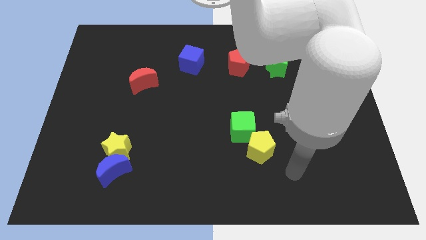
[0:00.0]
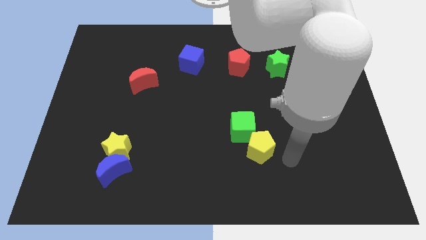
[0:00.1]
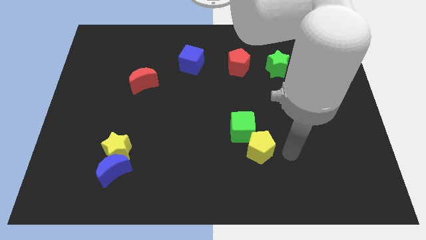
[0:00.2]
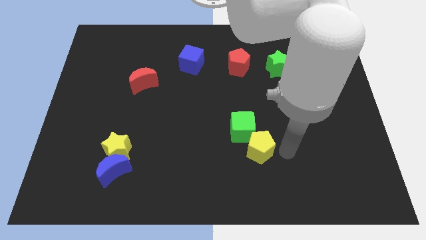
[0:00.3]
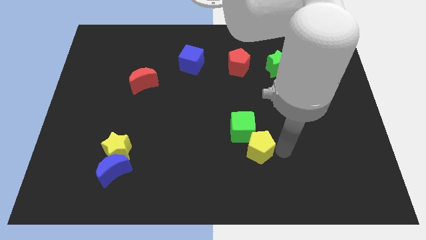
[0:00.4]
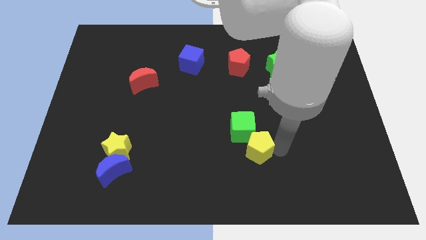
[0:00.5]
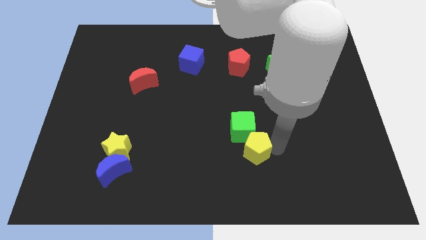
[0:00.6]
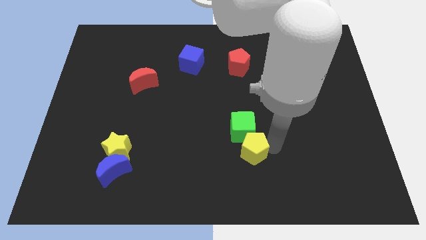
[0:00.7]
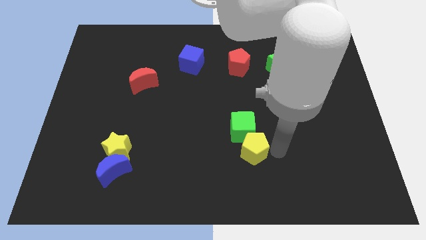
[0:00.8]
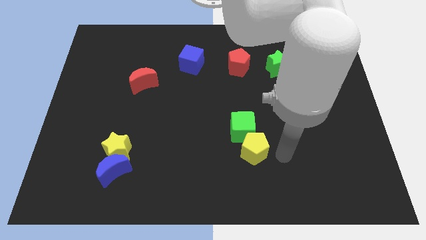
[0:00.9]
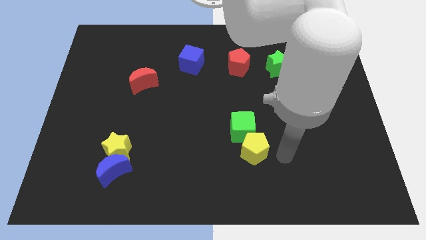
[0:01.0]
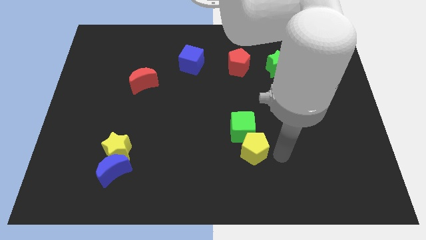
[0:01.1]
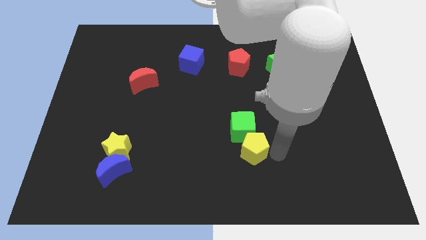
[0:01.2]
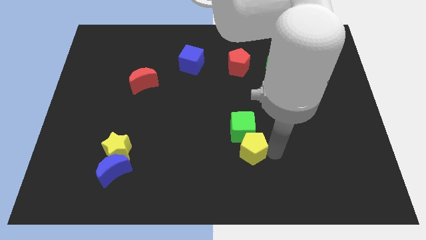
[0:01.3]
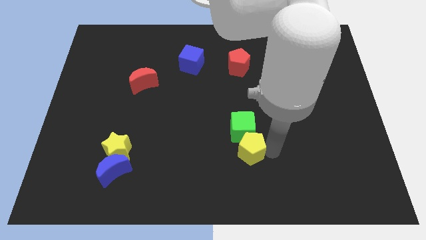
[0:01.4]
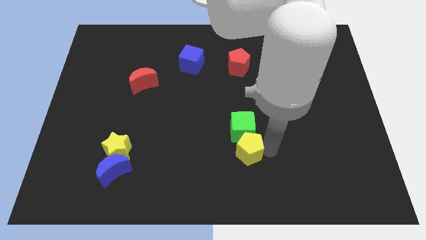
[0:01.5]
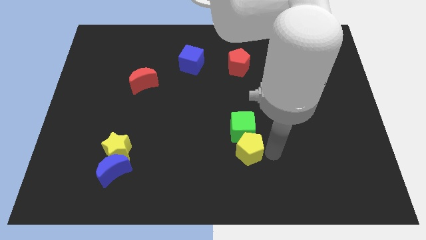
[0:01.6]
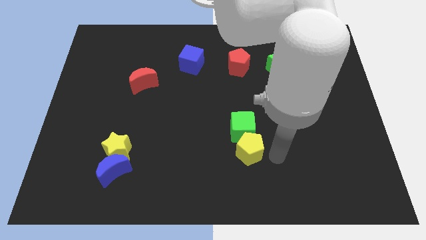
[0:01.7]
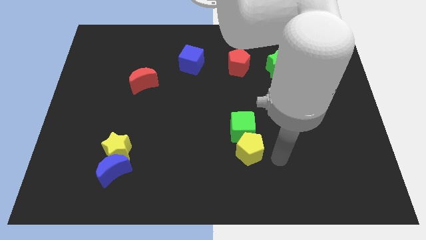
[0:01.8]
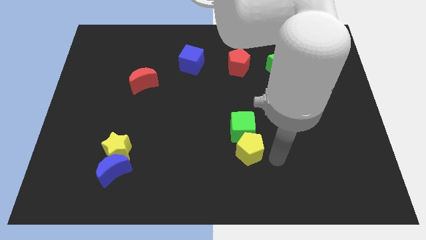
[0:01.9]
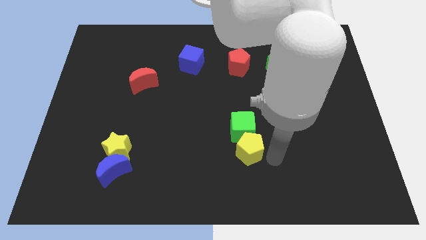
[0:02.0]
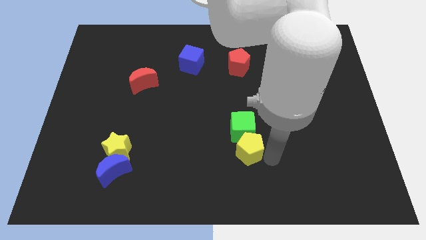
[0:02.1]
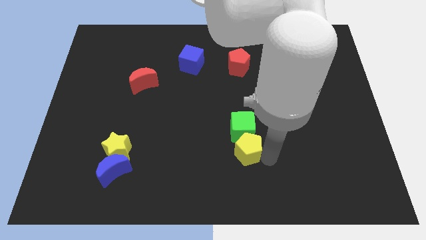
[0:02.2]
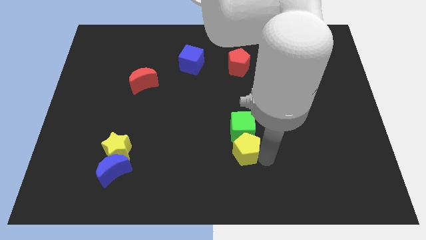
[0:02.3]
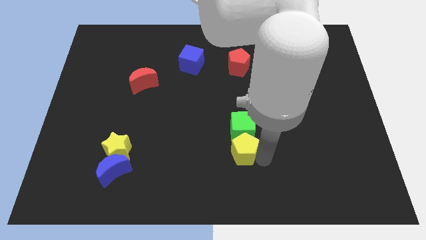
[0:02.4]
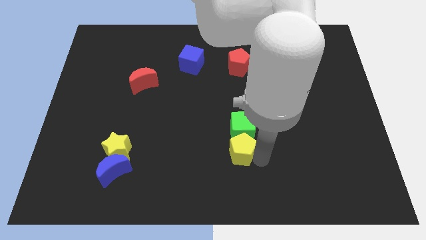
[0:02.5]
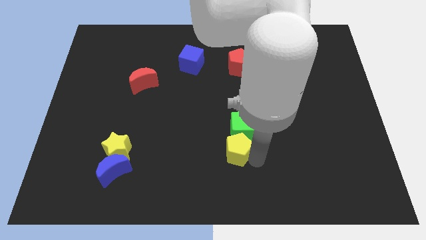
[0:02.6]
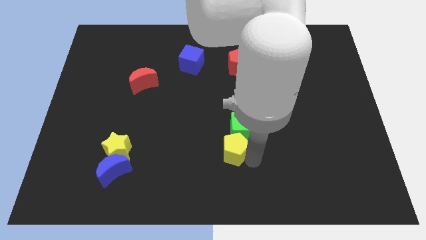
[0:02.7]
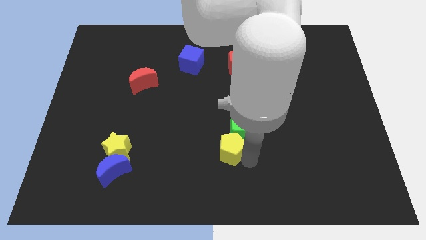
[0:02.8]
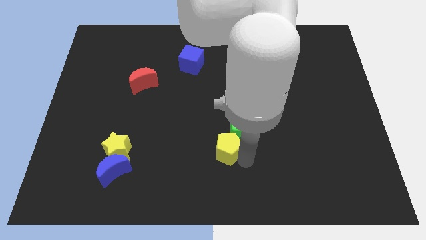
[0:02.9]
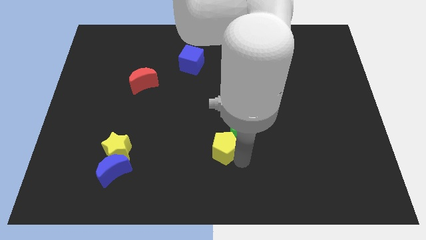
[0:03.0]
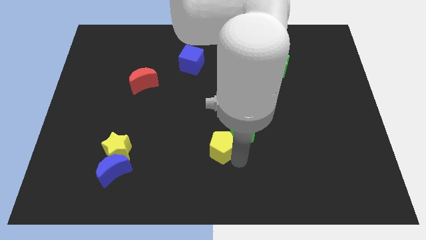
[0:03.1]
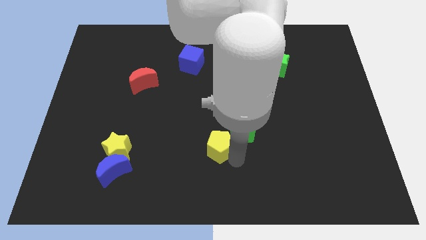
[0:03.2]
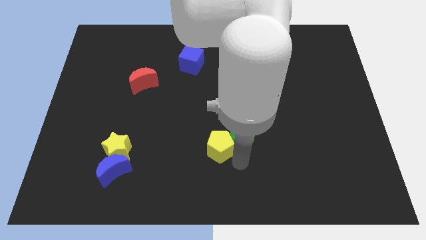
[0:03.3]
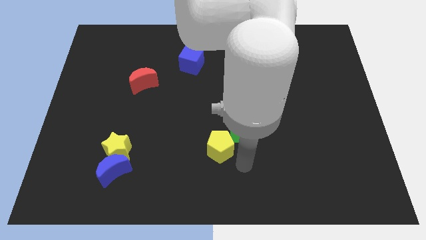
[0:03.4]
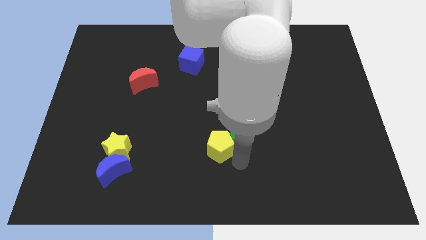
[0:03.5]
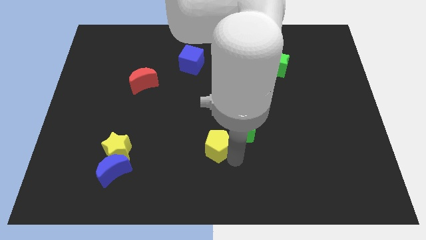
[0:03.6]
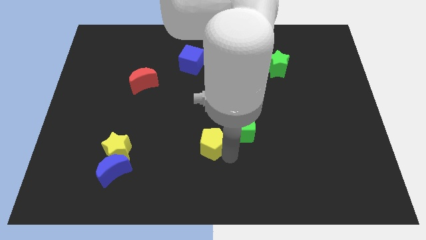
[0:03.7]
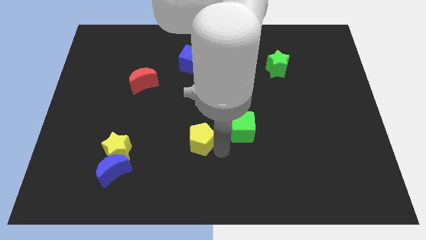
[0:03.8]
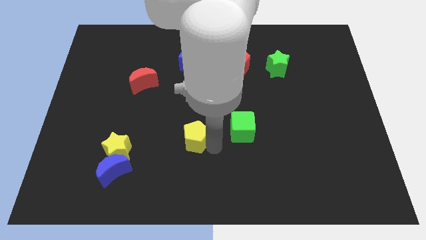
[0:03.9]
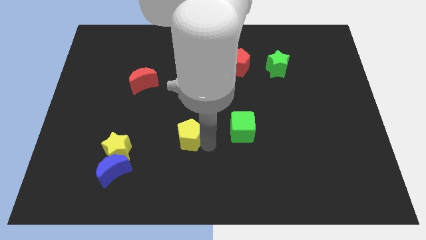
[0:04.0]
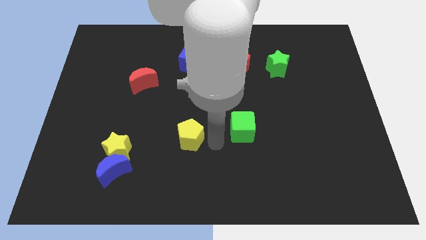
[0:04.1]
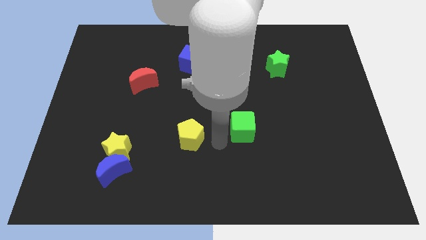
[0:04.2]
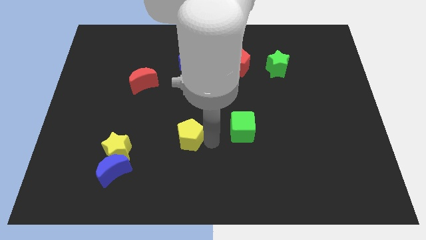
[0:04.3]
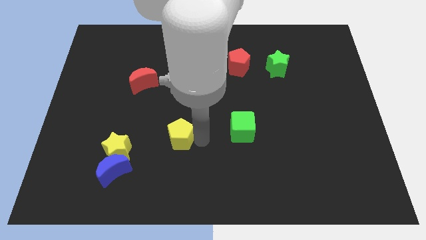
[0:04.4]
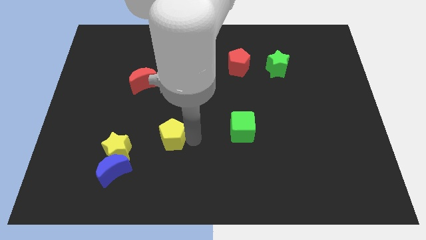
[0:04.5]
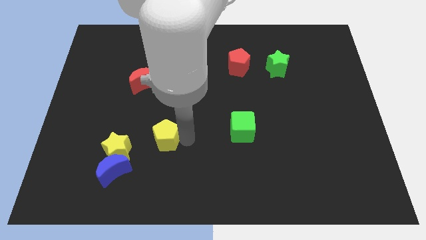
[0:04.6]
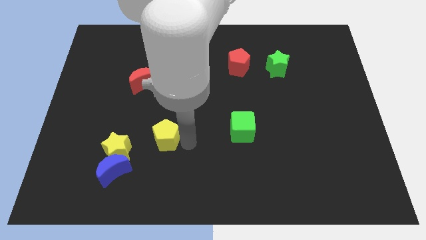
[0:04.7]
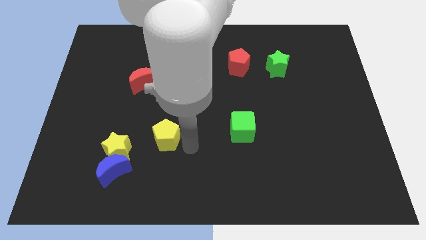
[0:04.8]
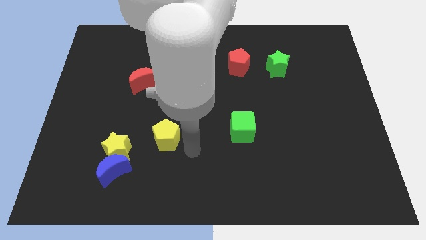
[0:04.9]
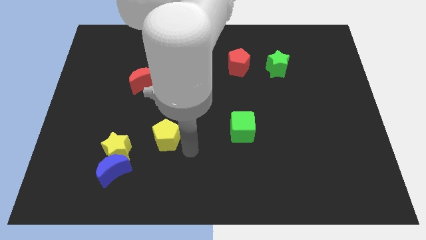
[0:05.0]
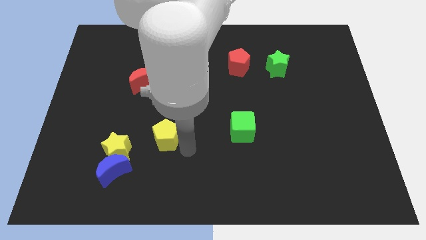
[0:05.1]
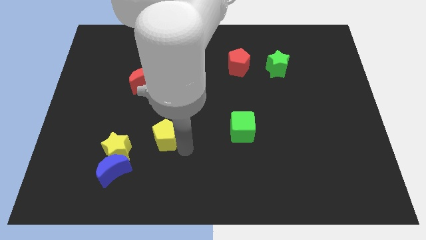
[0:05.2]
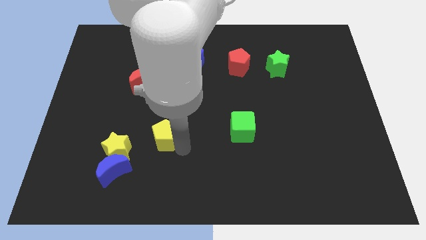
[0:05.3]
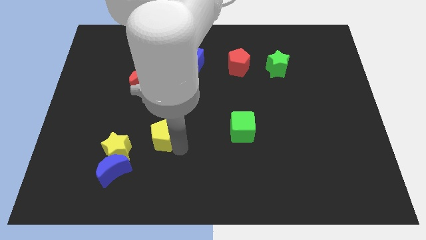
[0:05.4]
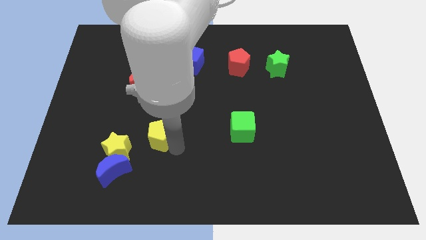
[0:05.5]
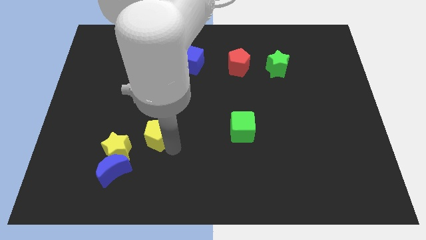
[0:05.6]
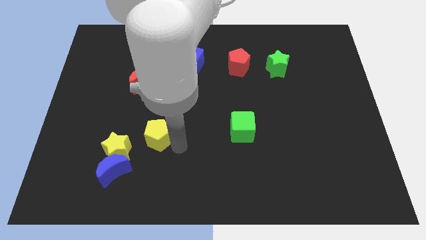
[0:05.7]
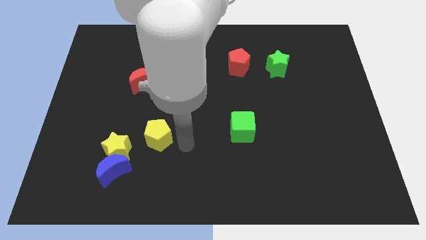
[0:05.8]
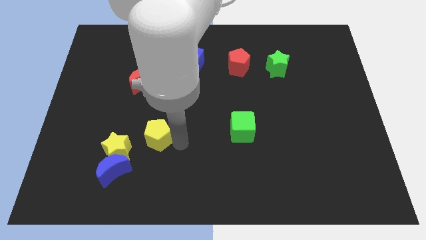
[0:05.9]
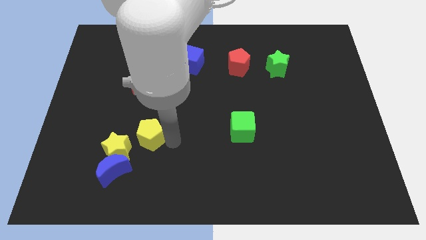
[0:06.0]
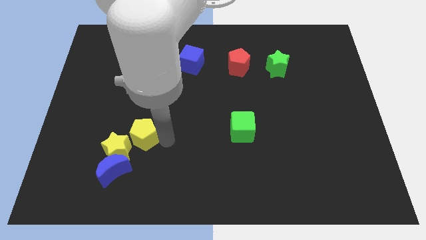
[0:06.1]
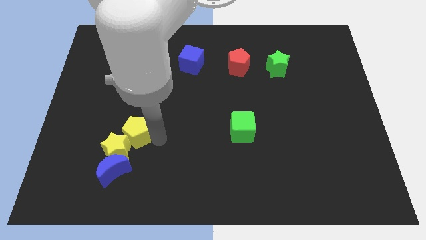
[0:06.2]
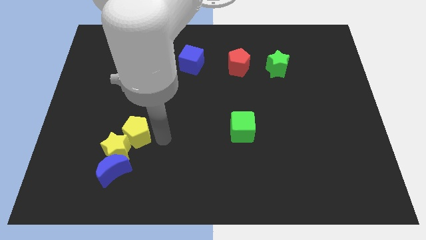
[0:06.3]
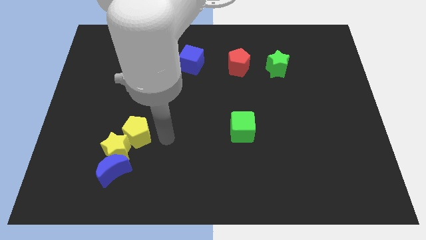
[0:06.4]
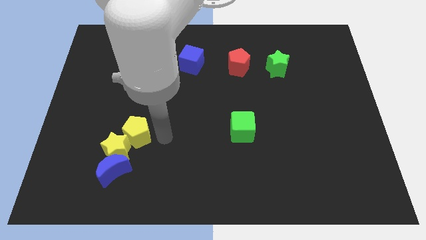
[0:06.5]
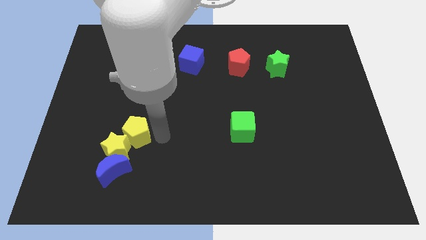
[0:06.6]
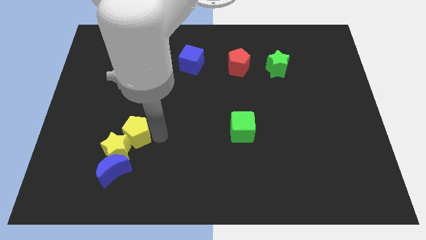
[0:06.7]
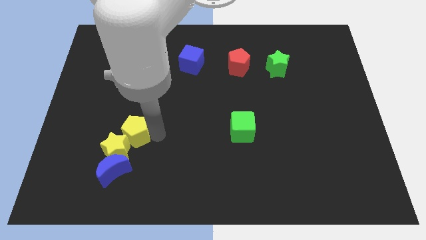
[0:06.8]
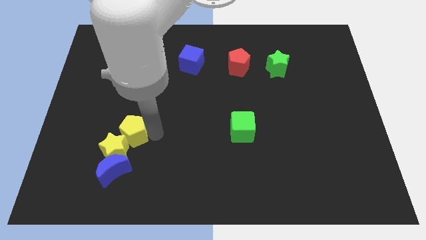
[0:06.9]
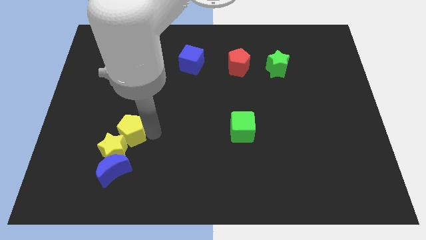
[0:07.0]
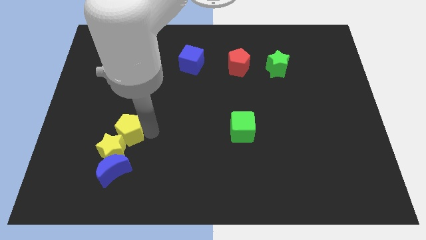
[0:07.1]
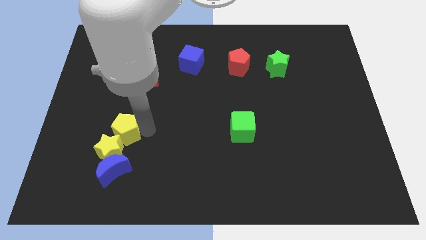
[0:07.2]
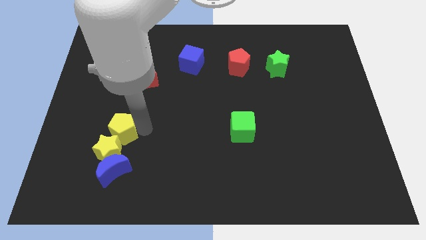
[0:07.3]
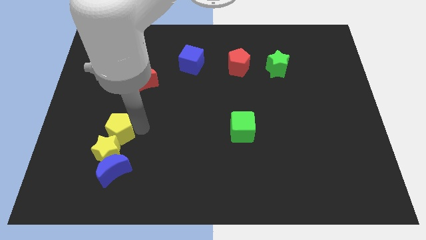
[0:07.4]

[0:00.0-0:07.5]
slide the yellow pentagon to the top left of the yellow star
